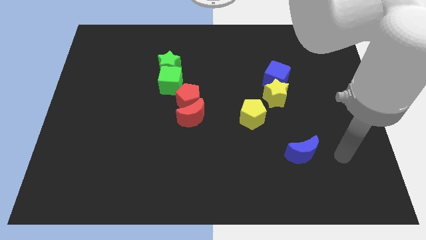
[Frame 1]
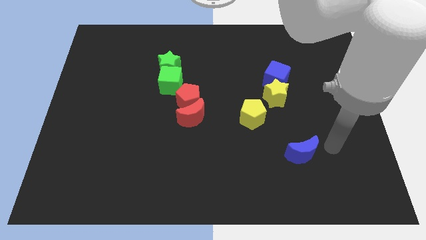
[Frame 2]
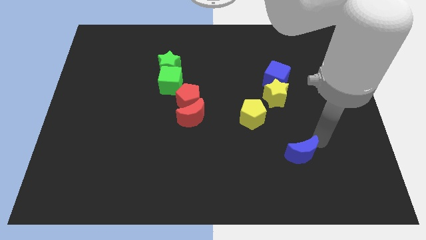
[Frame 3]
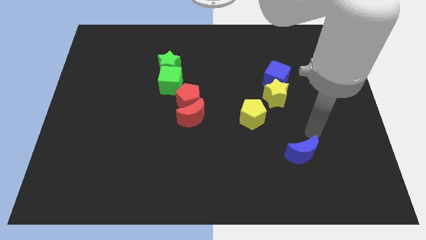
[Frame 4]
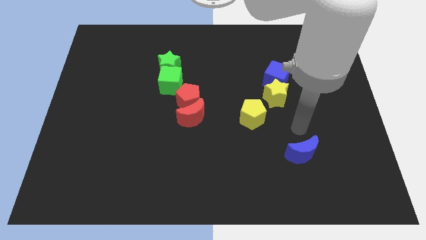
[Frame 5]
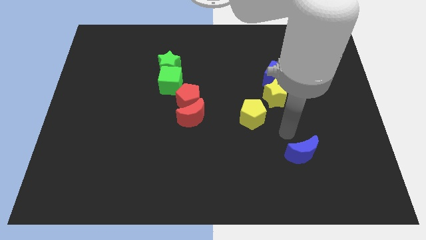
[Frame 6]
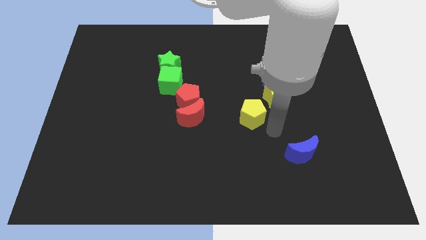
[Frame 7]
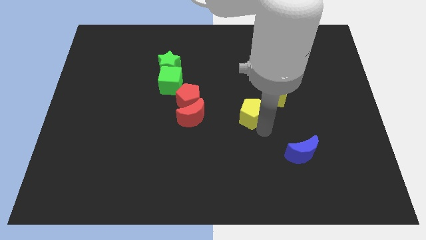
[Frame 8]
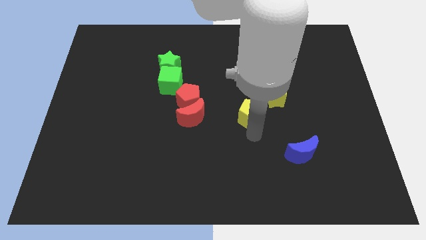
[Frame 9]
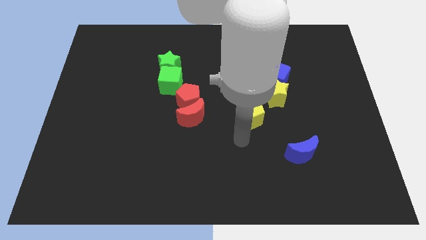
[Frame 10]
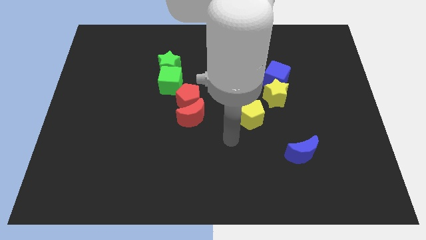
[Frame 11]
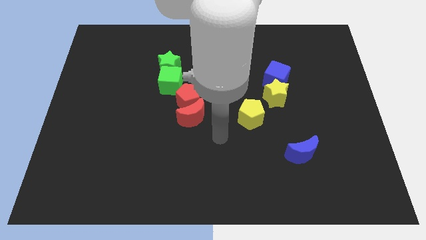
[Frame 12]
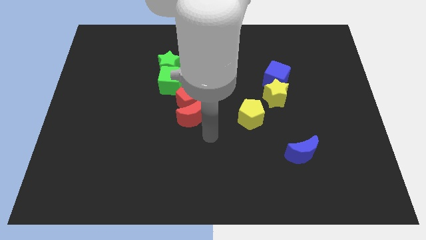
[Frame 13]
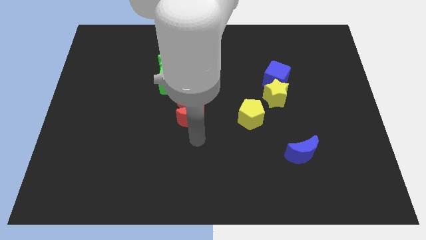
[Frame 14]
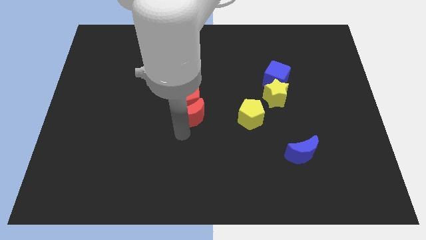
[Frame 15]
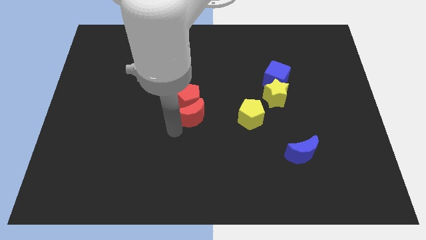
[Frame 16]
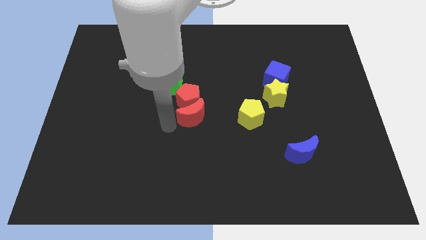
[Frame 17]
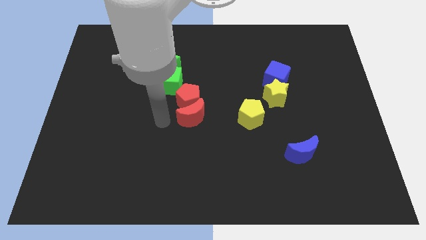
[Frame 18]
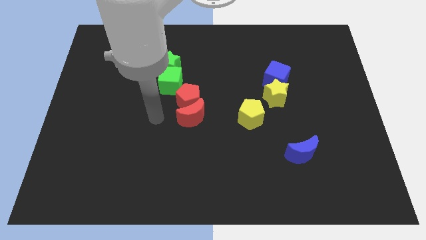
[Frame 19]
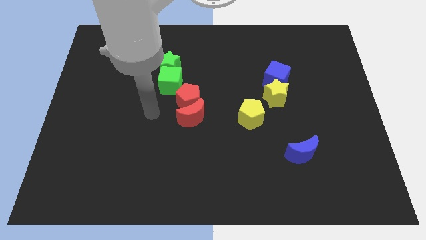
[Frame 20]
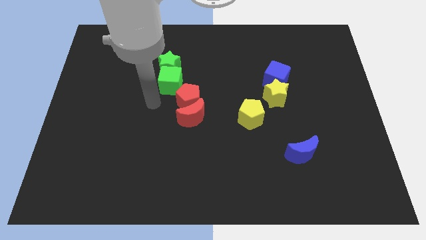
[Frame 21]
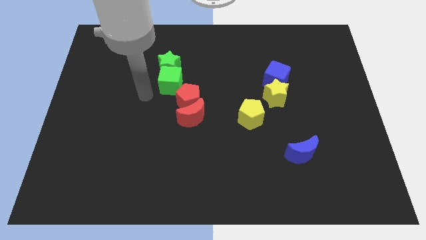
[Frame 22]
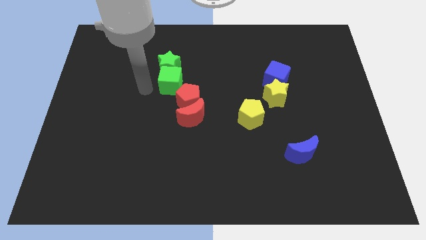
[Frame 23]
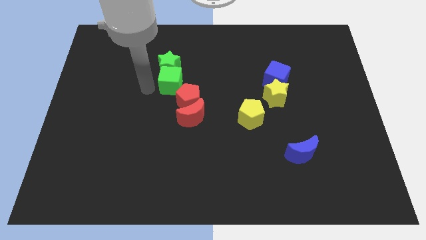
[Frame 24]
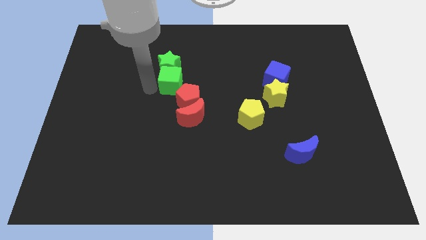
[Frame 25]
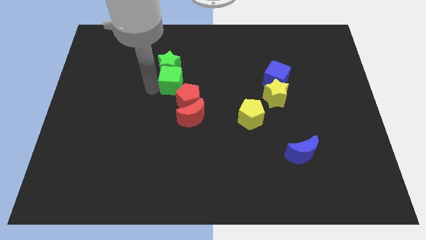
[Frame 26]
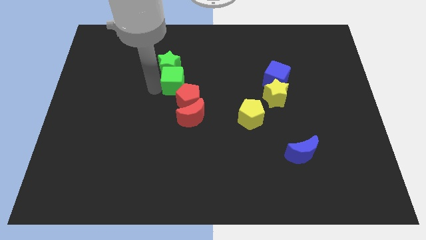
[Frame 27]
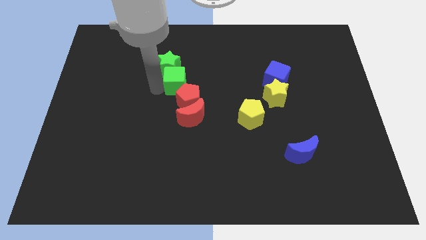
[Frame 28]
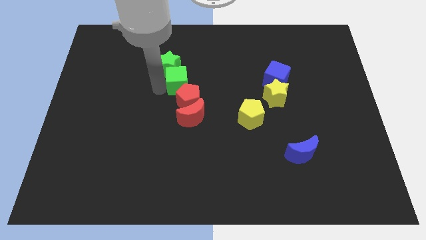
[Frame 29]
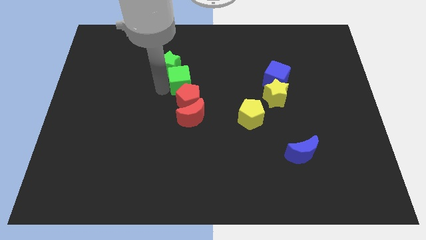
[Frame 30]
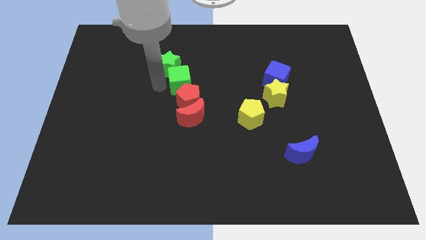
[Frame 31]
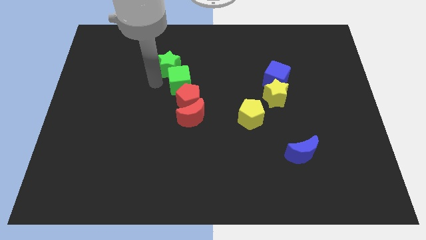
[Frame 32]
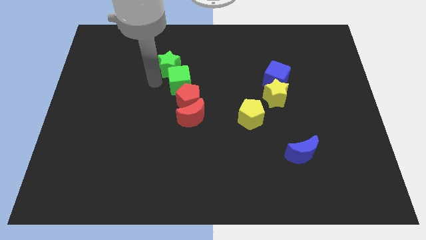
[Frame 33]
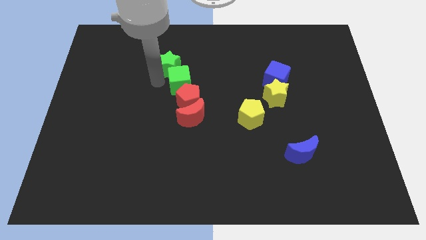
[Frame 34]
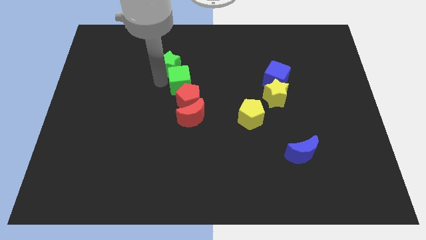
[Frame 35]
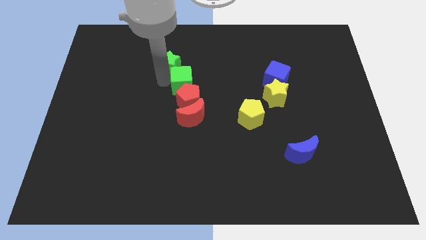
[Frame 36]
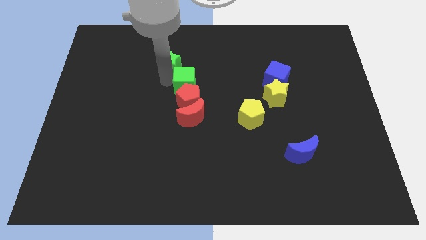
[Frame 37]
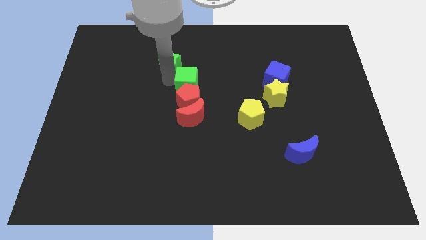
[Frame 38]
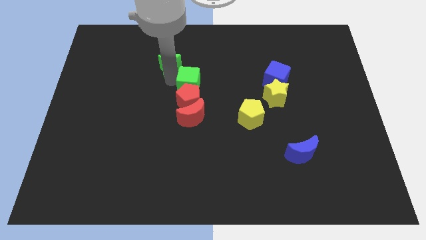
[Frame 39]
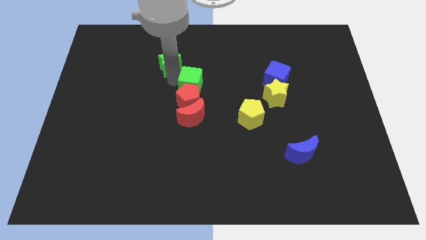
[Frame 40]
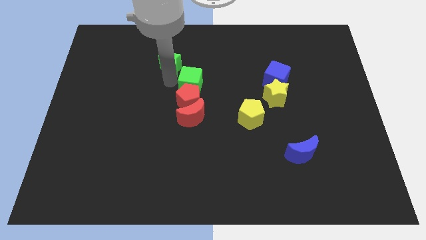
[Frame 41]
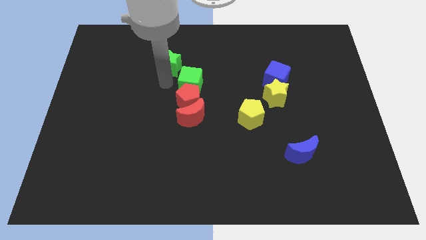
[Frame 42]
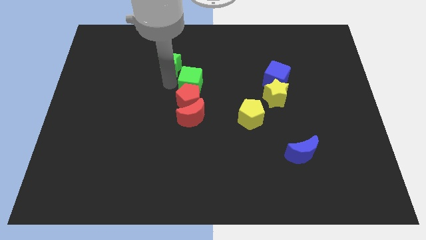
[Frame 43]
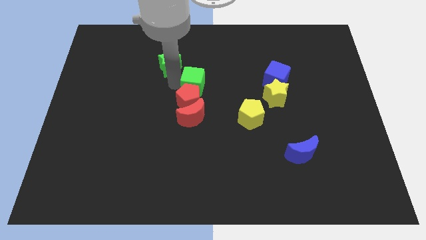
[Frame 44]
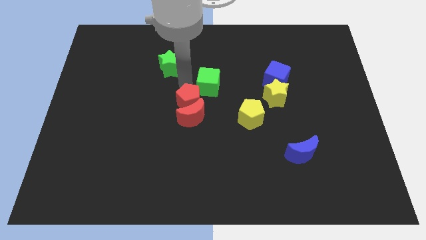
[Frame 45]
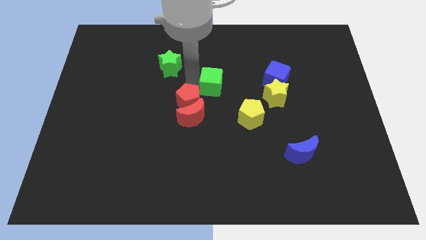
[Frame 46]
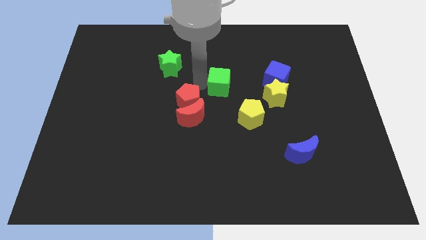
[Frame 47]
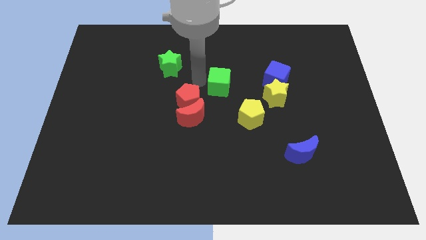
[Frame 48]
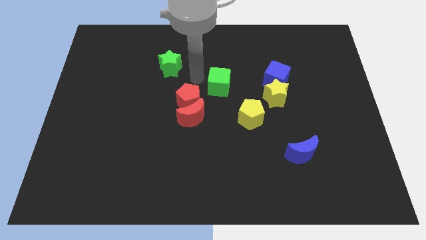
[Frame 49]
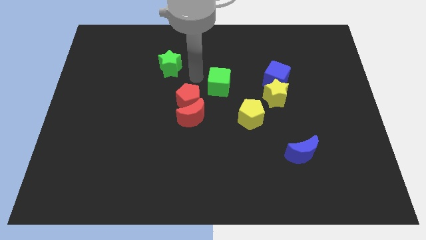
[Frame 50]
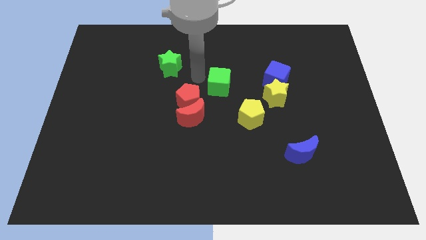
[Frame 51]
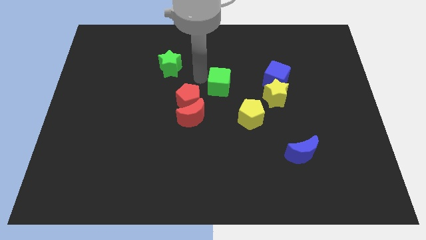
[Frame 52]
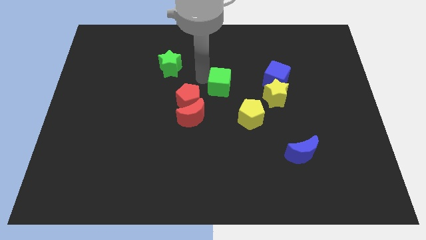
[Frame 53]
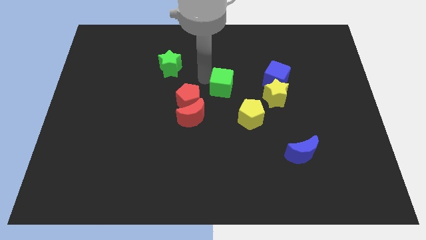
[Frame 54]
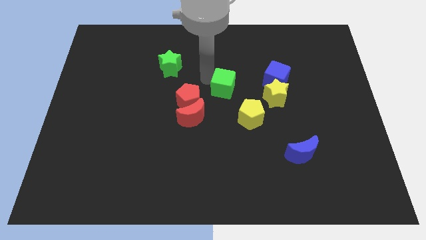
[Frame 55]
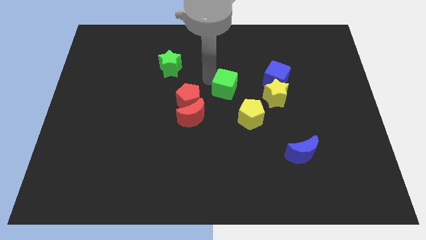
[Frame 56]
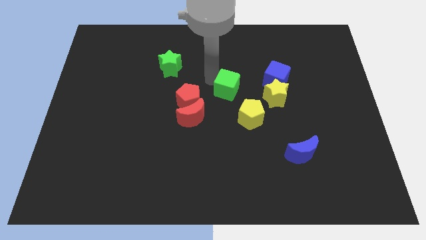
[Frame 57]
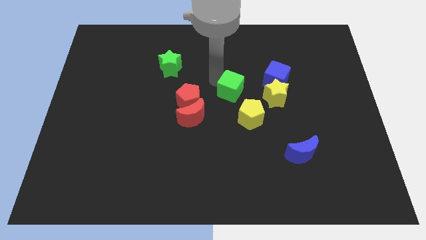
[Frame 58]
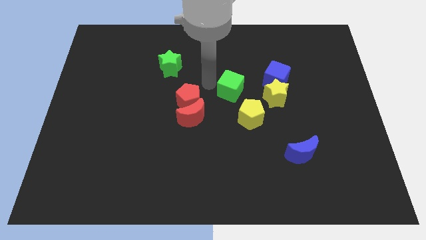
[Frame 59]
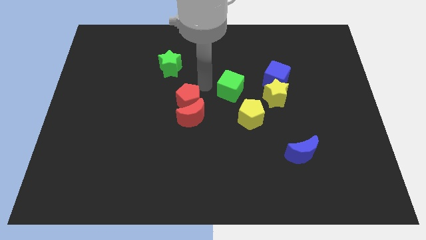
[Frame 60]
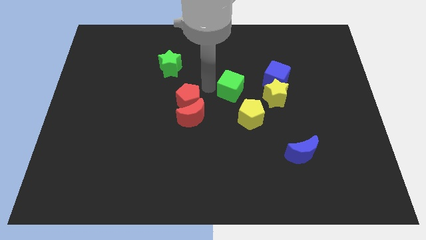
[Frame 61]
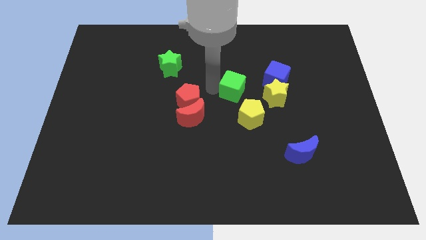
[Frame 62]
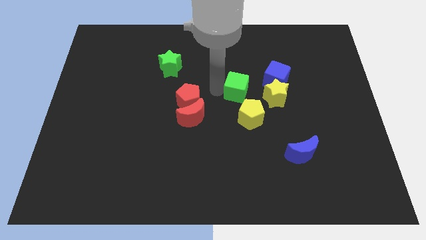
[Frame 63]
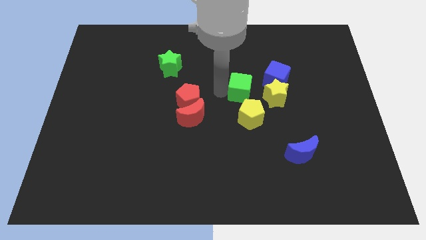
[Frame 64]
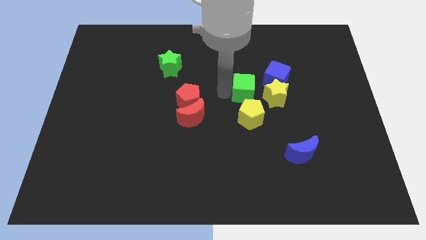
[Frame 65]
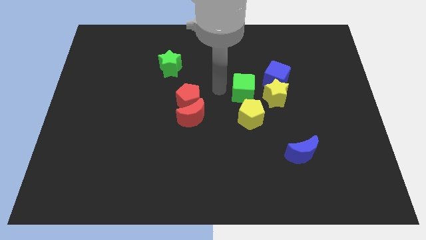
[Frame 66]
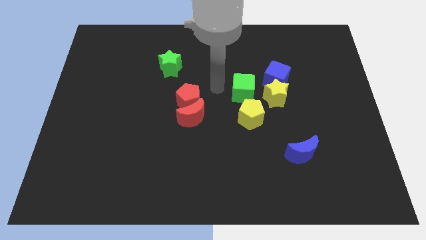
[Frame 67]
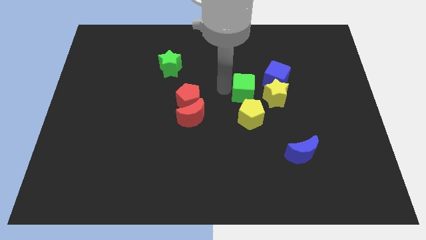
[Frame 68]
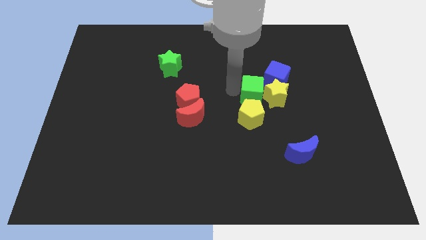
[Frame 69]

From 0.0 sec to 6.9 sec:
put the green cube to the yellow star
